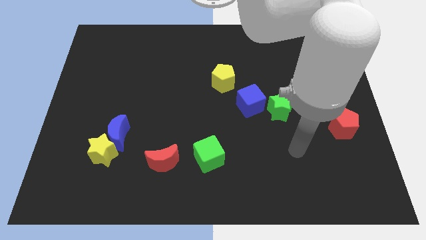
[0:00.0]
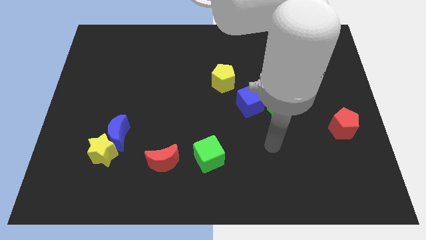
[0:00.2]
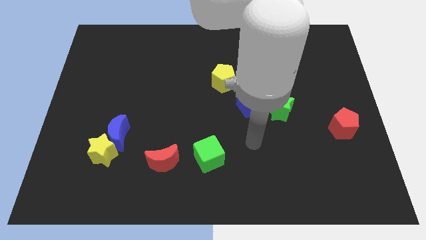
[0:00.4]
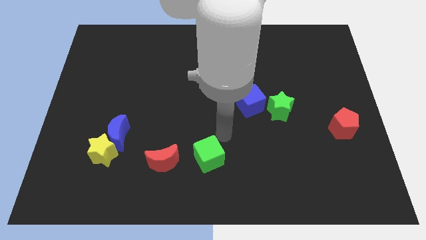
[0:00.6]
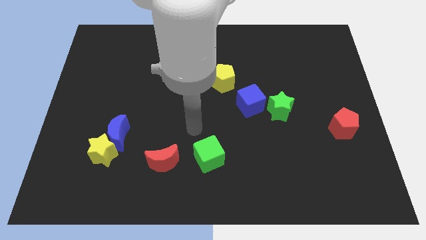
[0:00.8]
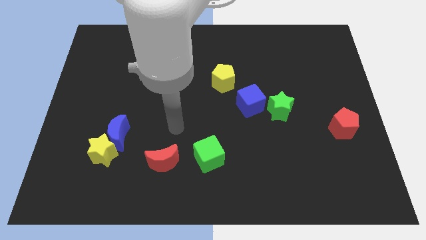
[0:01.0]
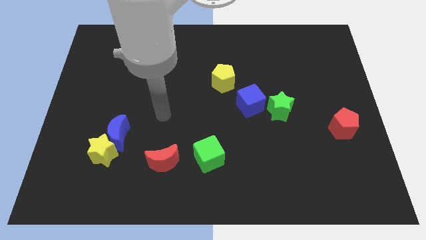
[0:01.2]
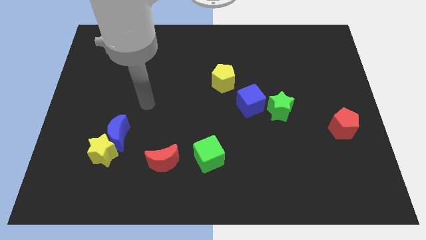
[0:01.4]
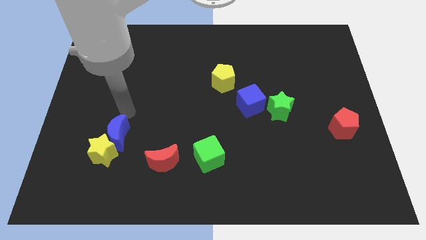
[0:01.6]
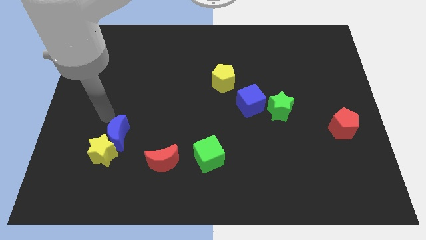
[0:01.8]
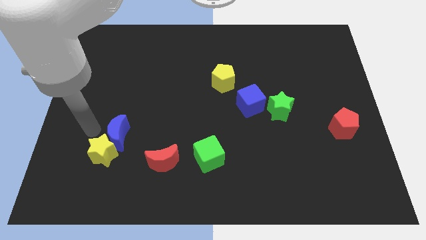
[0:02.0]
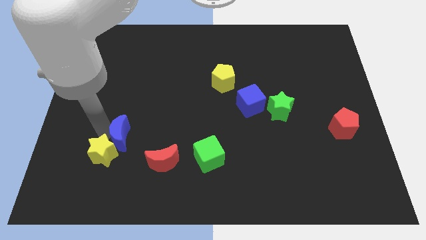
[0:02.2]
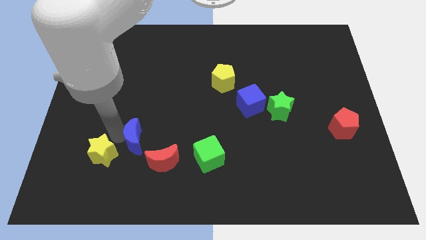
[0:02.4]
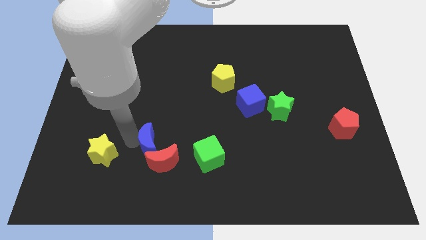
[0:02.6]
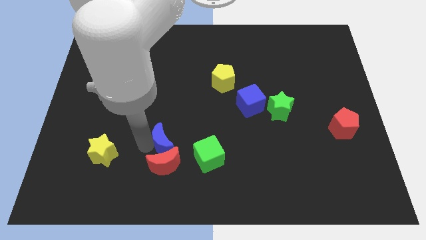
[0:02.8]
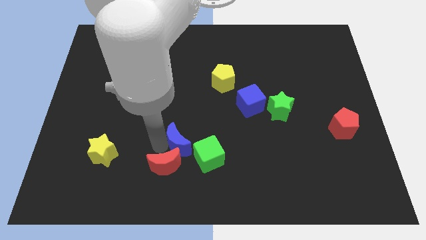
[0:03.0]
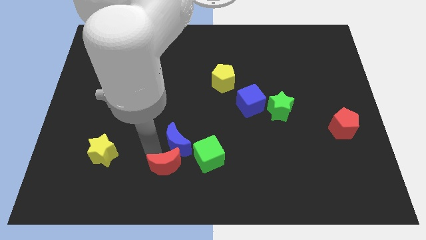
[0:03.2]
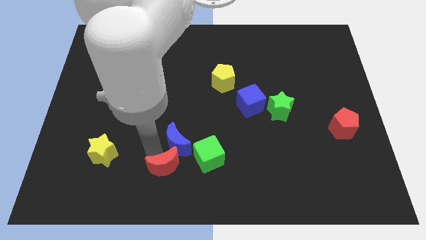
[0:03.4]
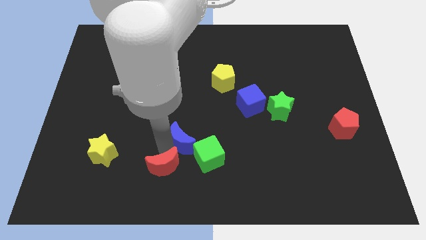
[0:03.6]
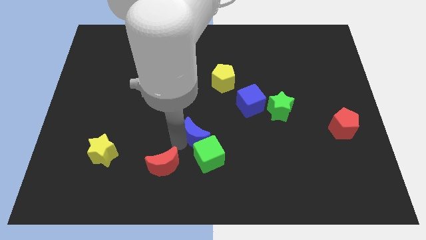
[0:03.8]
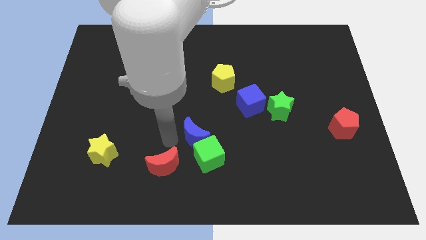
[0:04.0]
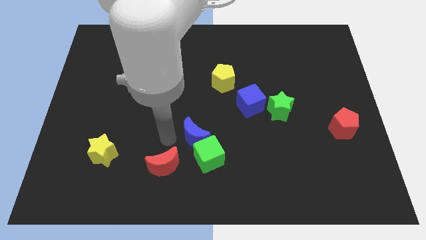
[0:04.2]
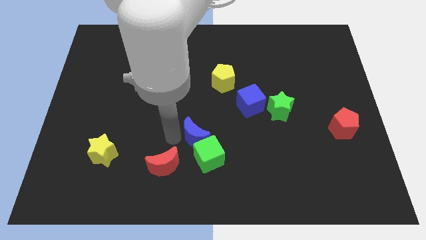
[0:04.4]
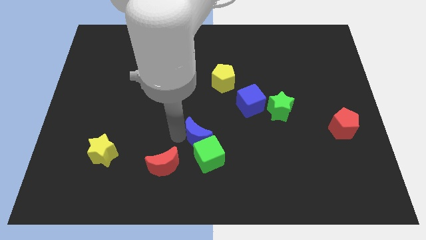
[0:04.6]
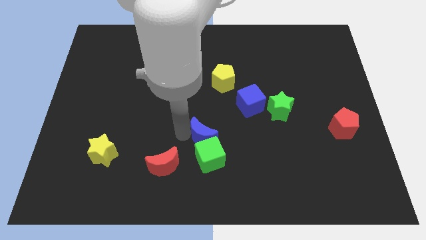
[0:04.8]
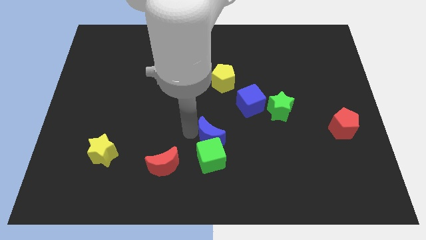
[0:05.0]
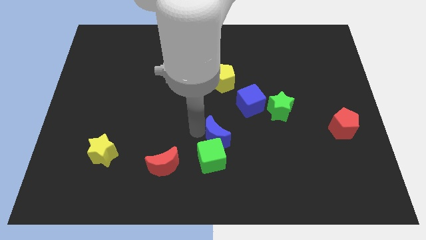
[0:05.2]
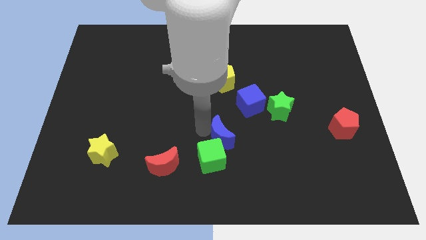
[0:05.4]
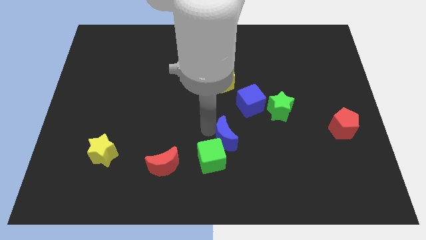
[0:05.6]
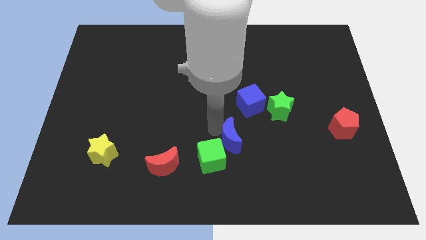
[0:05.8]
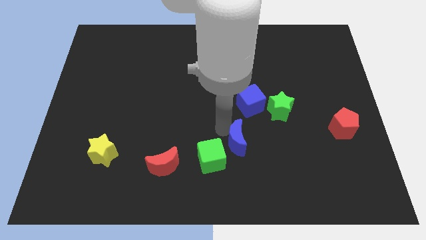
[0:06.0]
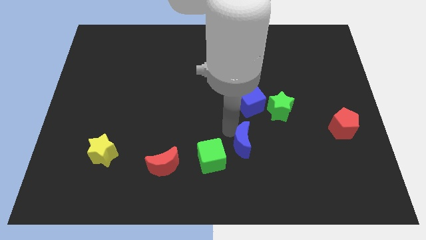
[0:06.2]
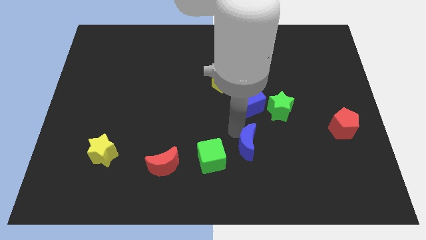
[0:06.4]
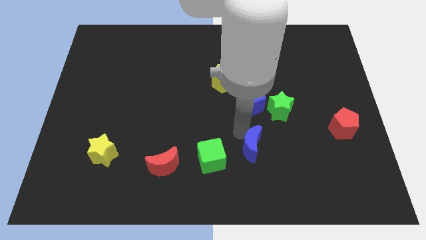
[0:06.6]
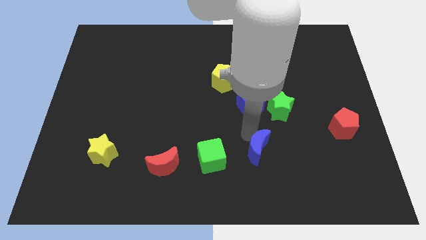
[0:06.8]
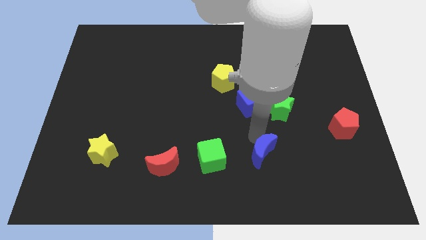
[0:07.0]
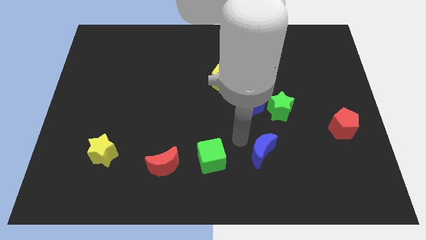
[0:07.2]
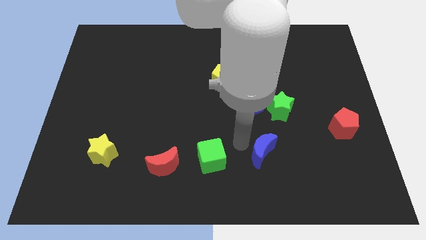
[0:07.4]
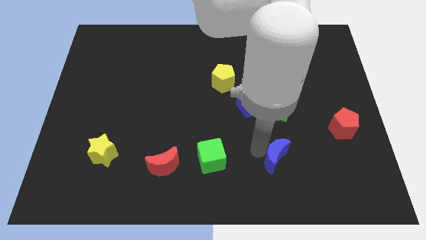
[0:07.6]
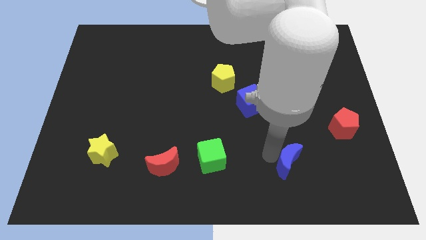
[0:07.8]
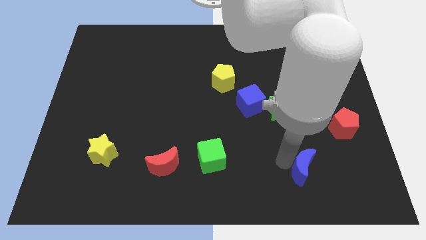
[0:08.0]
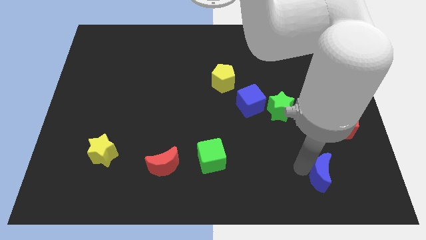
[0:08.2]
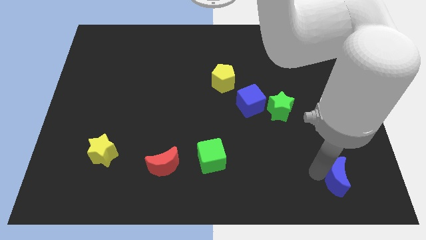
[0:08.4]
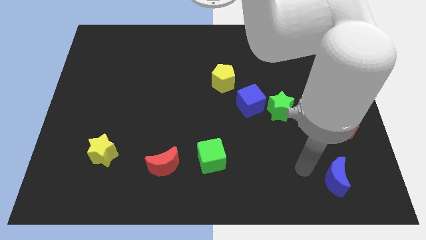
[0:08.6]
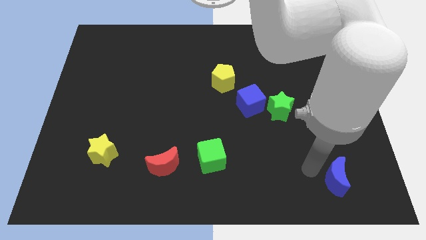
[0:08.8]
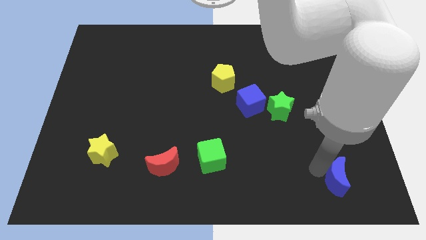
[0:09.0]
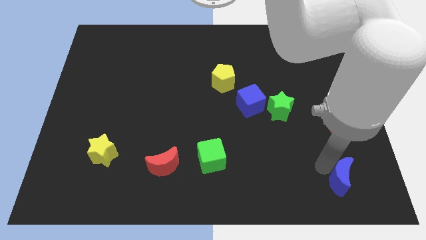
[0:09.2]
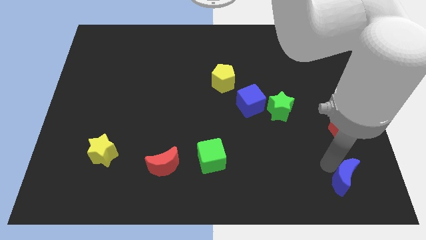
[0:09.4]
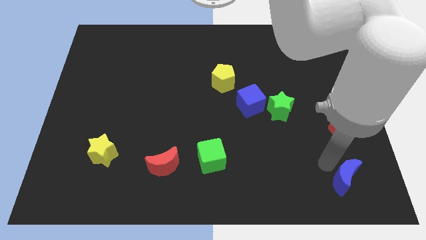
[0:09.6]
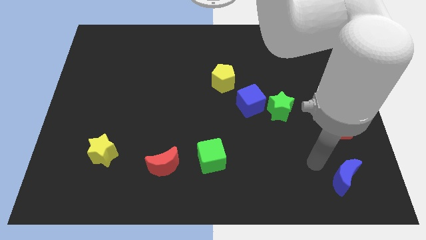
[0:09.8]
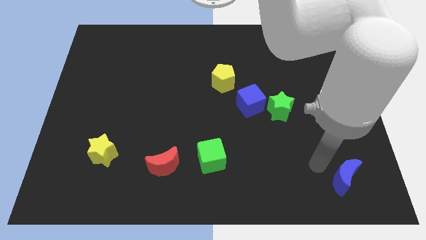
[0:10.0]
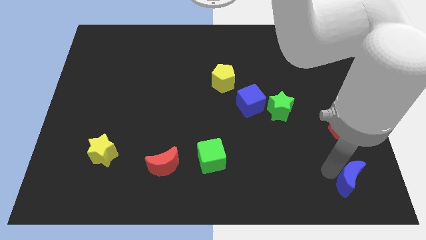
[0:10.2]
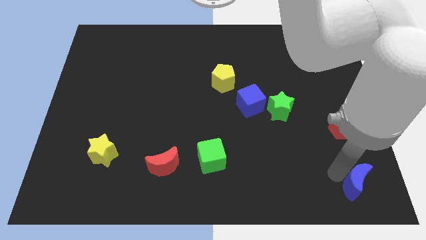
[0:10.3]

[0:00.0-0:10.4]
push the blue moon to the bottom right

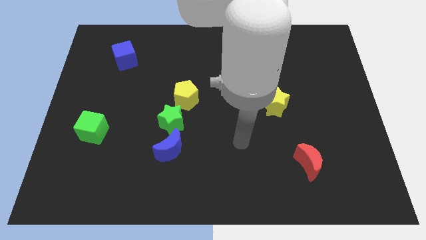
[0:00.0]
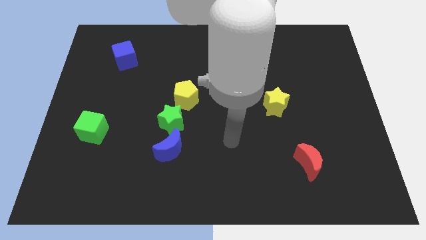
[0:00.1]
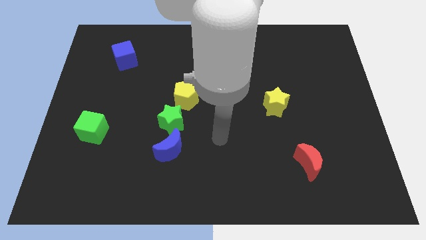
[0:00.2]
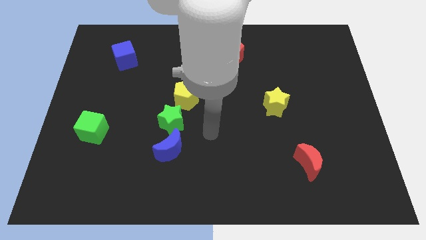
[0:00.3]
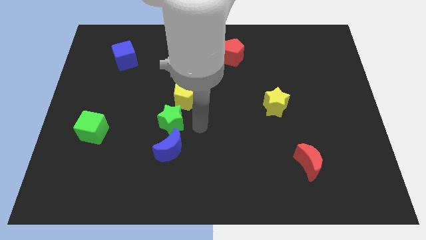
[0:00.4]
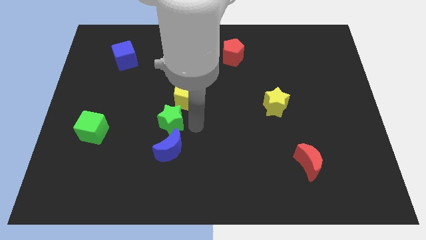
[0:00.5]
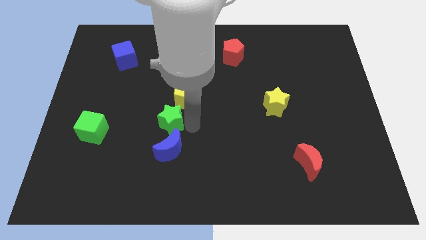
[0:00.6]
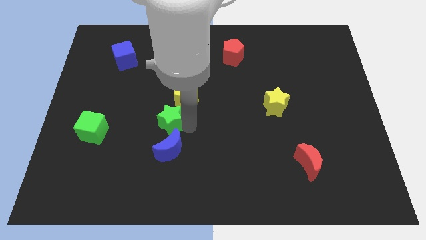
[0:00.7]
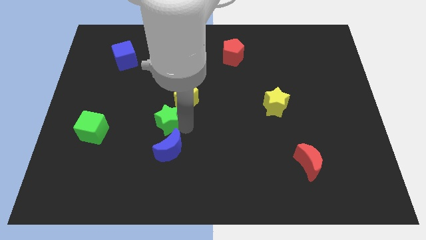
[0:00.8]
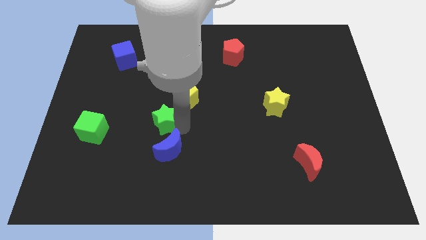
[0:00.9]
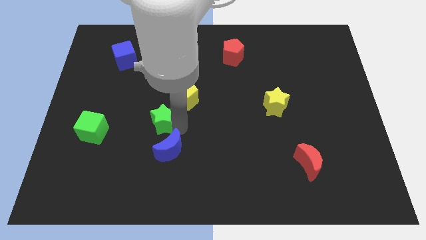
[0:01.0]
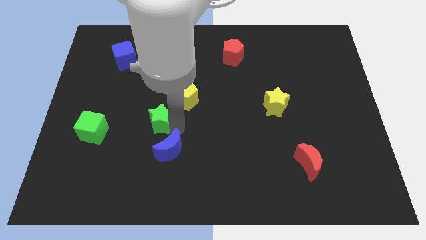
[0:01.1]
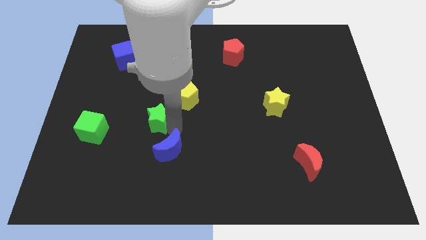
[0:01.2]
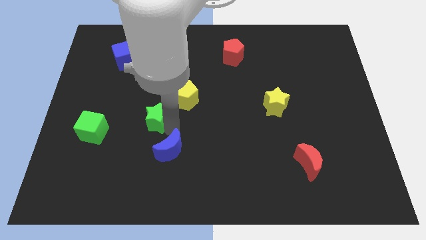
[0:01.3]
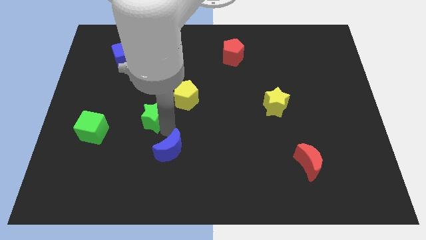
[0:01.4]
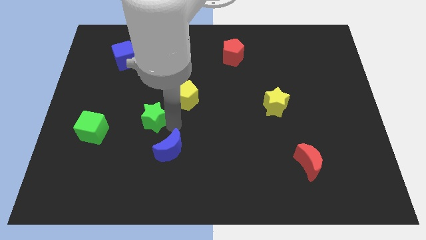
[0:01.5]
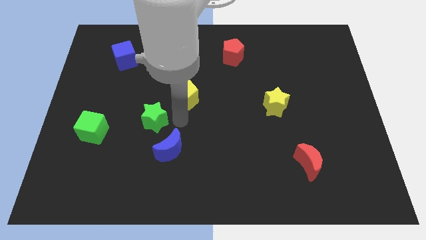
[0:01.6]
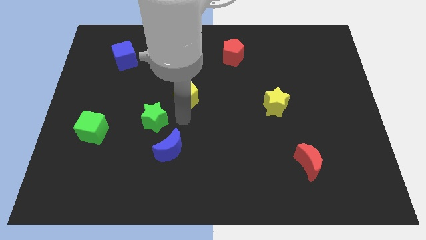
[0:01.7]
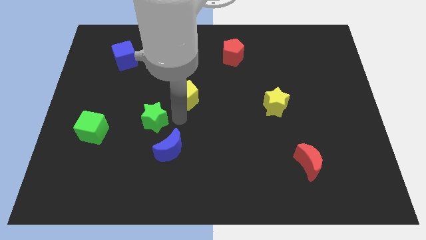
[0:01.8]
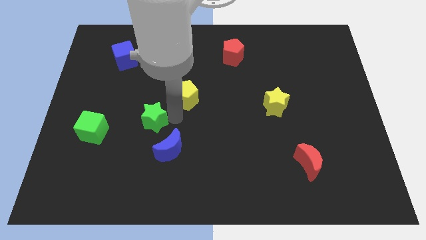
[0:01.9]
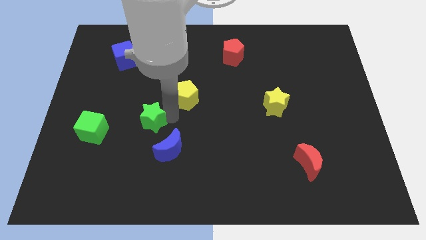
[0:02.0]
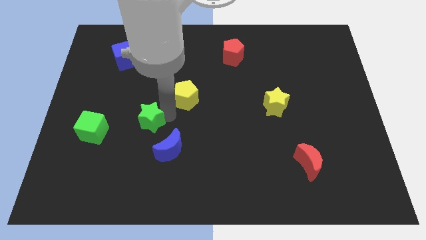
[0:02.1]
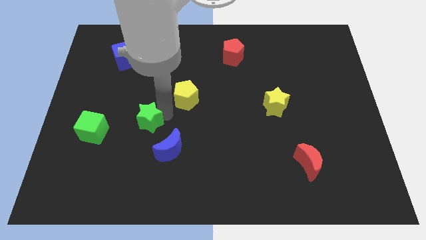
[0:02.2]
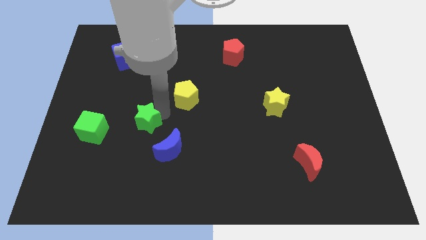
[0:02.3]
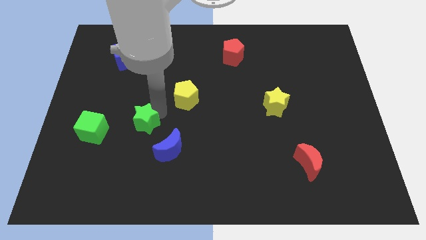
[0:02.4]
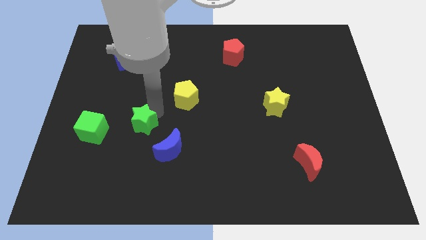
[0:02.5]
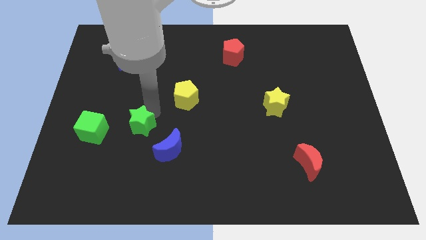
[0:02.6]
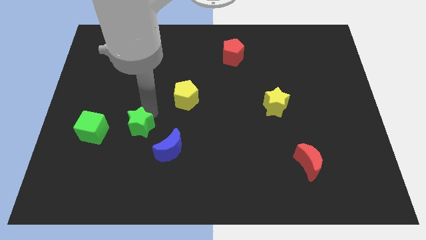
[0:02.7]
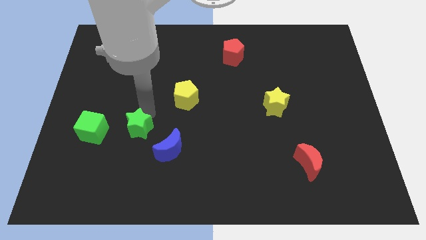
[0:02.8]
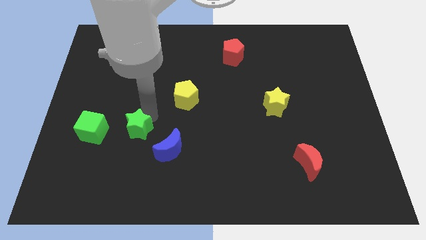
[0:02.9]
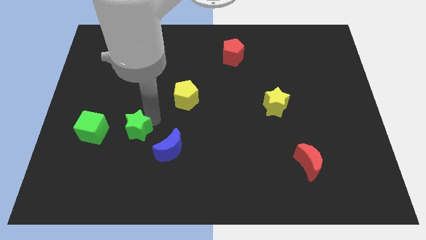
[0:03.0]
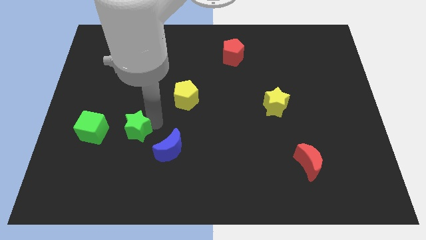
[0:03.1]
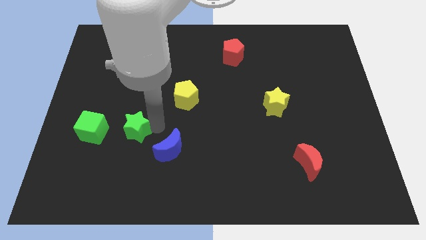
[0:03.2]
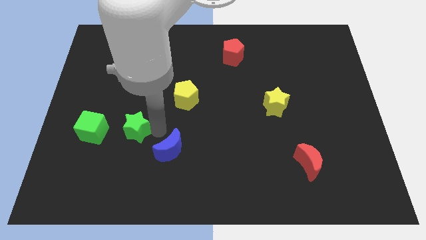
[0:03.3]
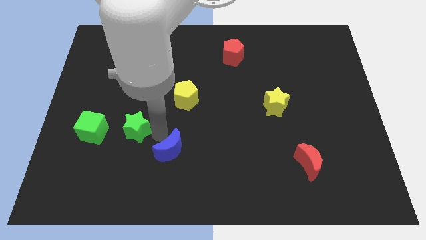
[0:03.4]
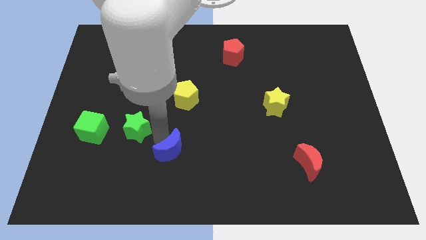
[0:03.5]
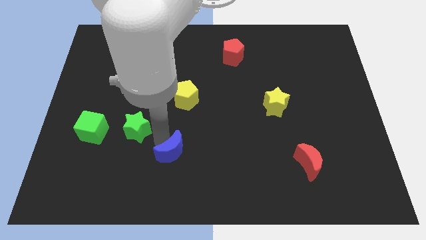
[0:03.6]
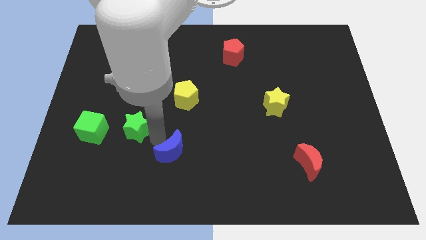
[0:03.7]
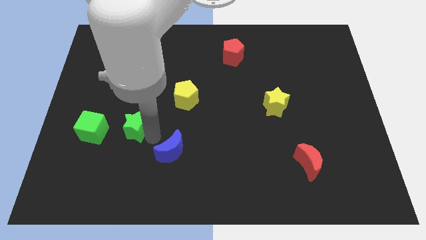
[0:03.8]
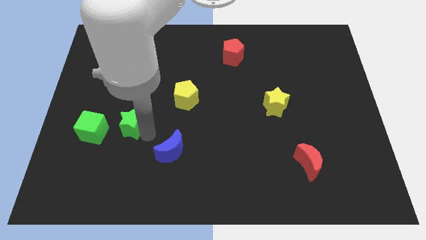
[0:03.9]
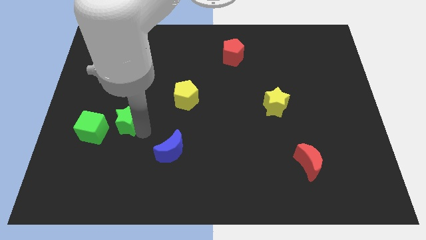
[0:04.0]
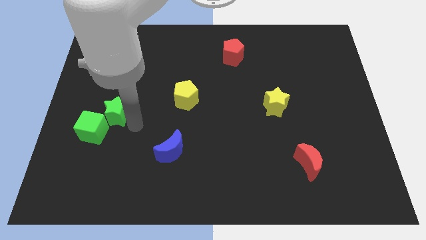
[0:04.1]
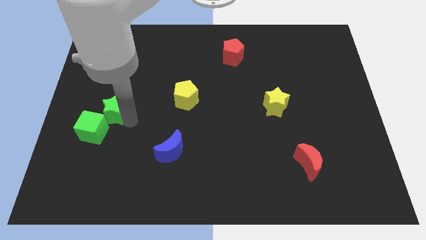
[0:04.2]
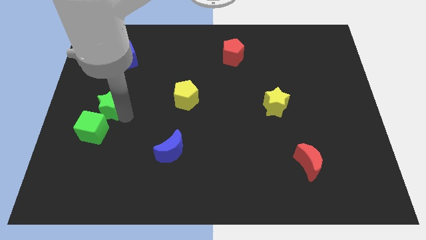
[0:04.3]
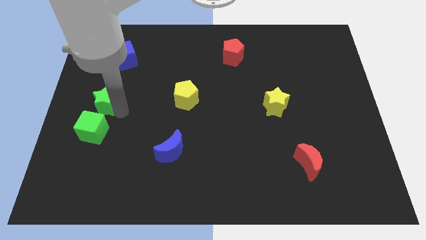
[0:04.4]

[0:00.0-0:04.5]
move the green star to the left side of the board
